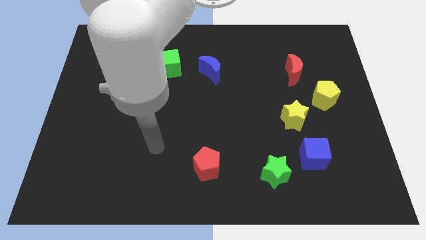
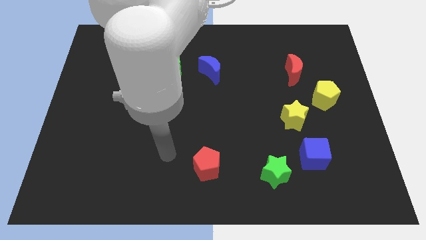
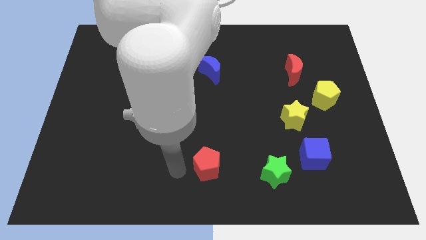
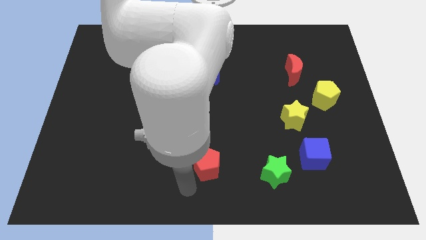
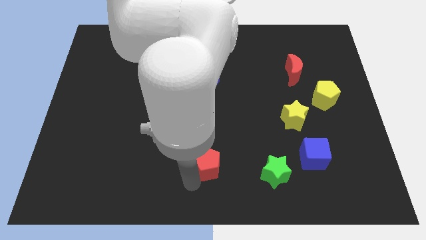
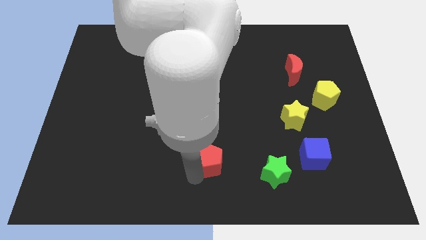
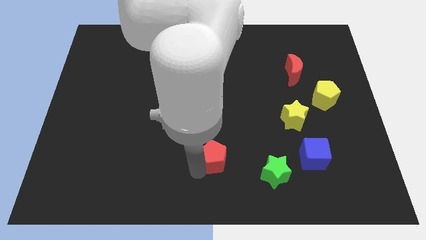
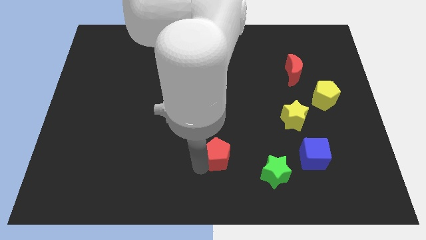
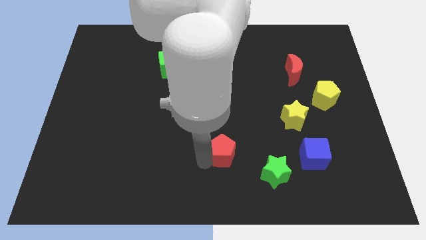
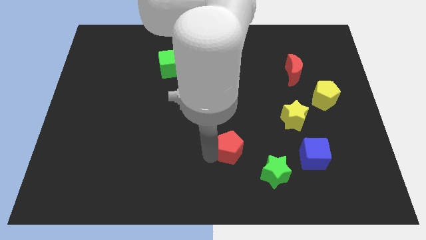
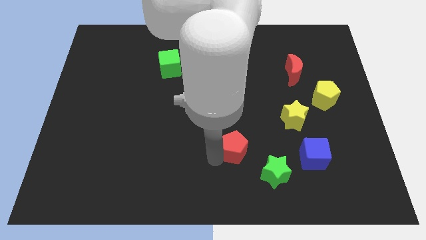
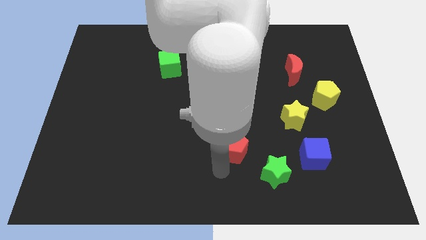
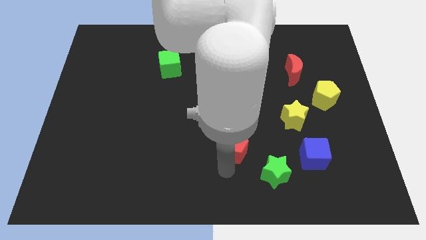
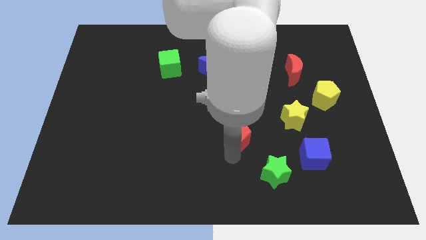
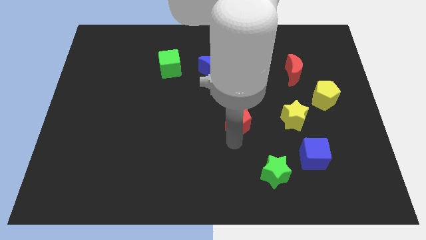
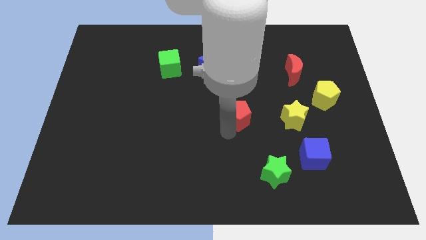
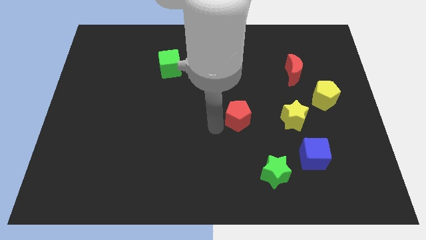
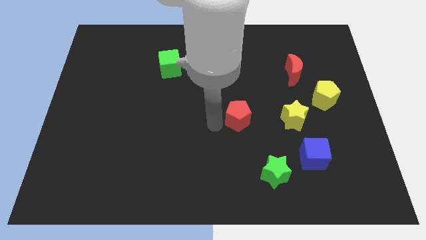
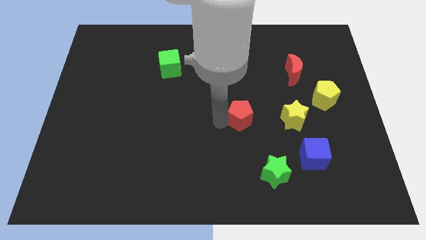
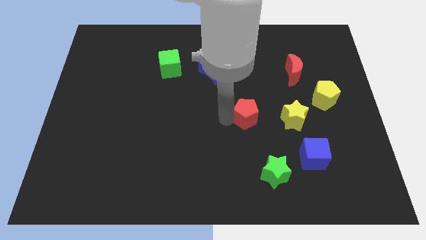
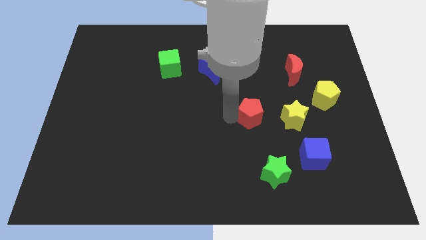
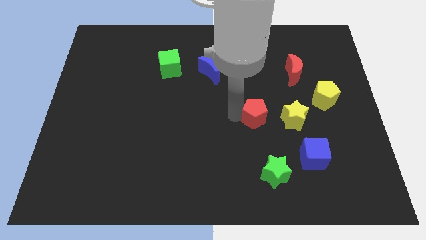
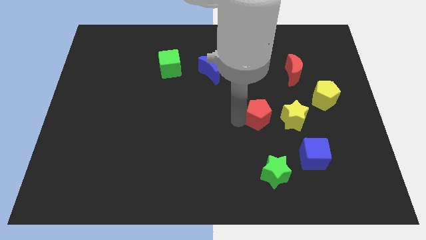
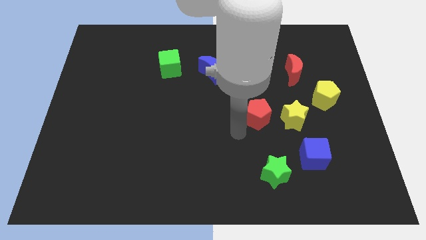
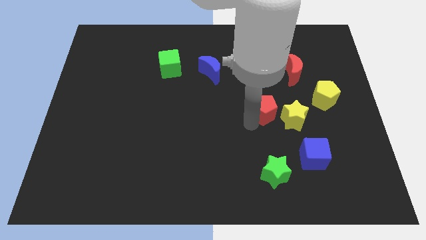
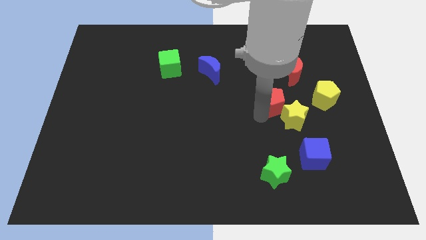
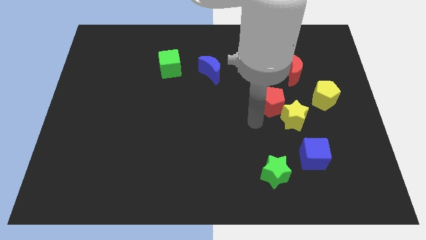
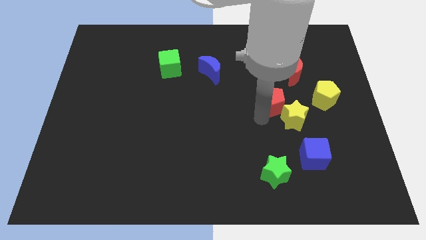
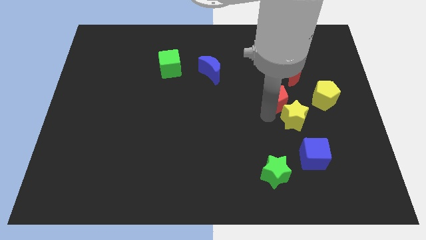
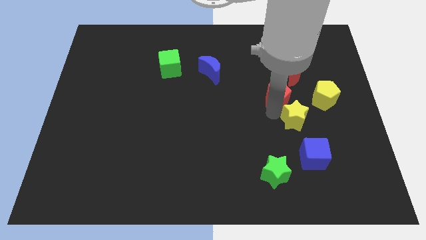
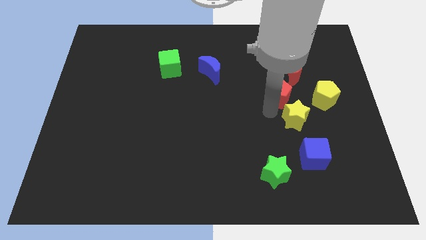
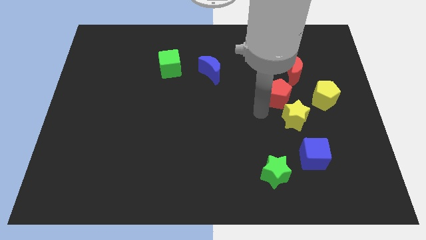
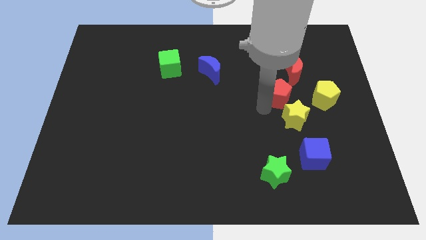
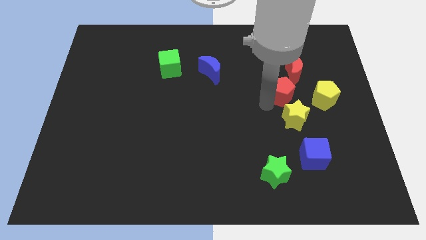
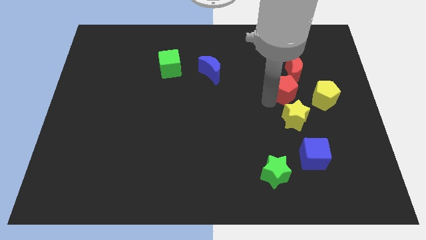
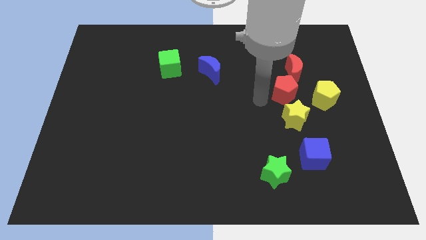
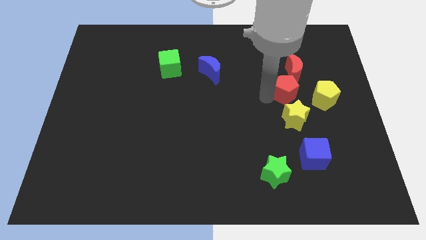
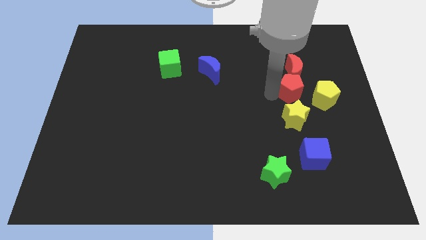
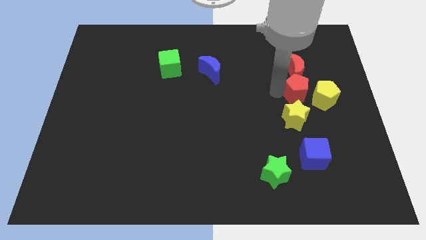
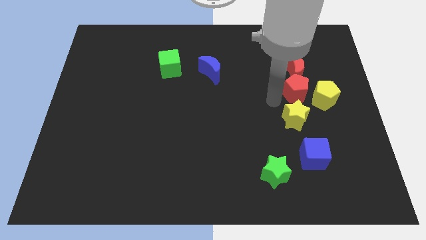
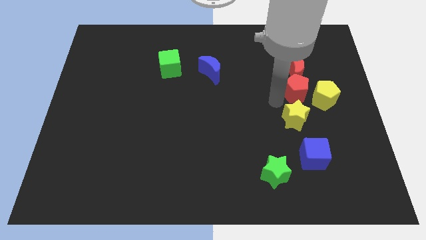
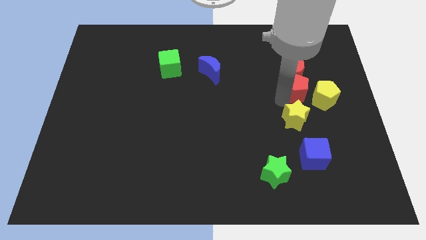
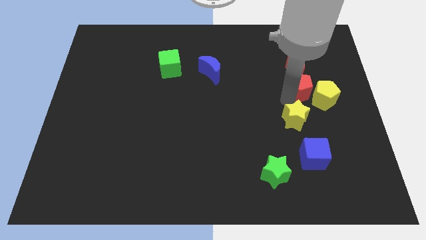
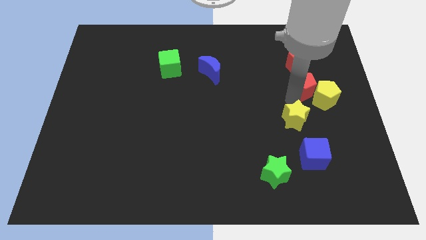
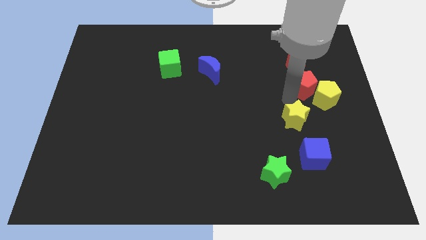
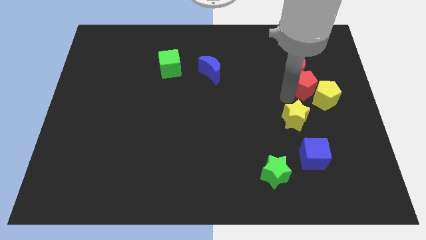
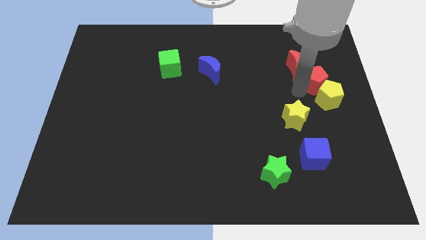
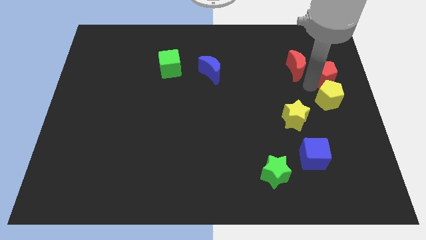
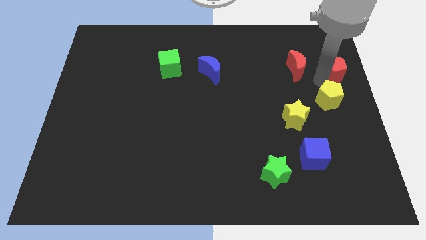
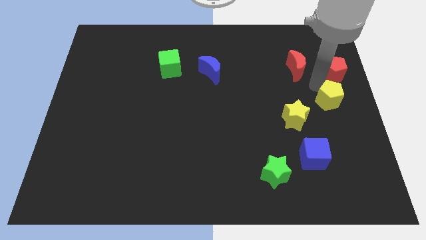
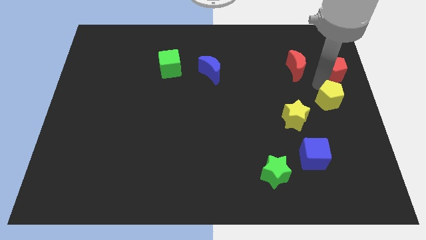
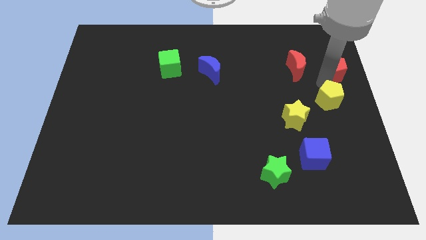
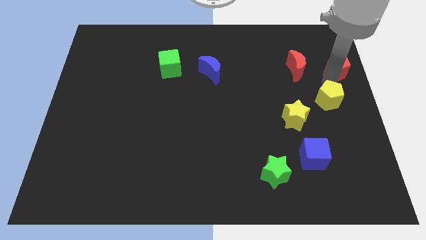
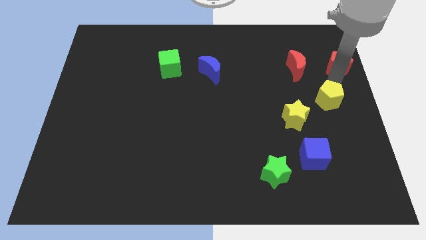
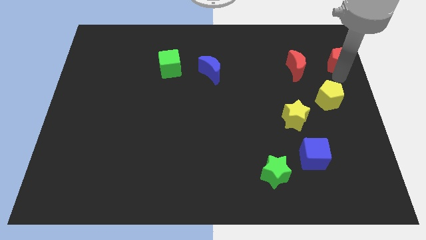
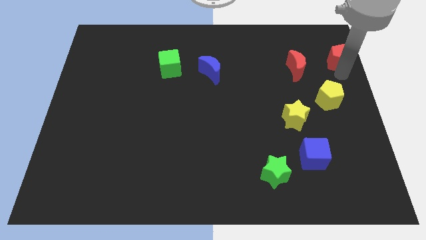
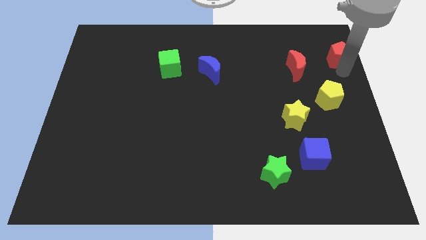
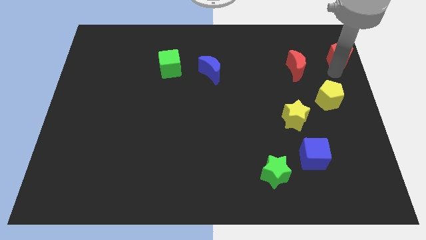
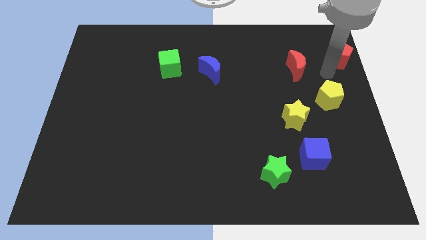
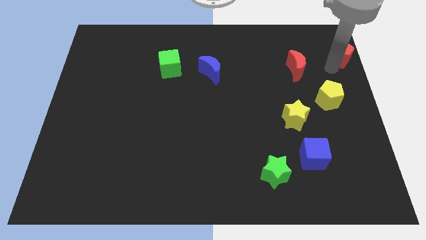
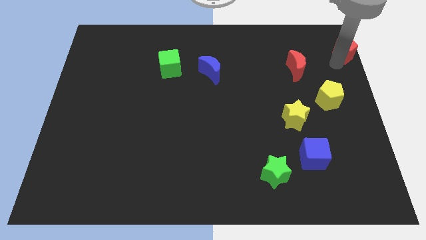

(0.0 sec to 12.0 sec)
move the red pentagon to the upper right corner
